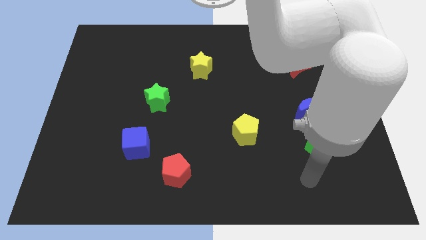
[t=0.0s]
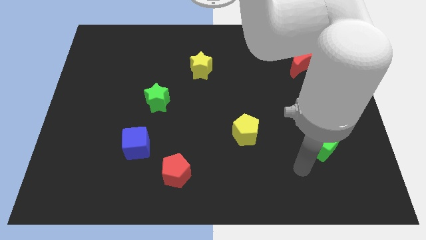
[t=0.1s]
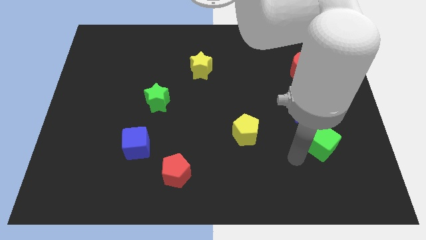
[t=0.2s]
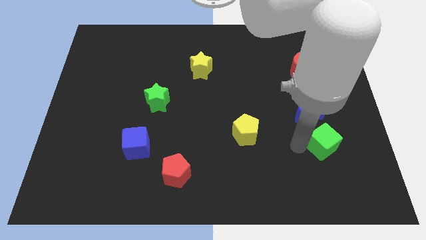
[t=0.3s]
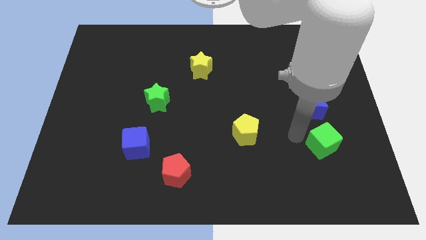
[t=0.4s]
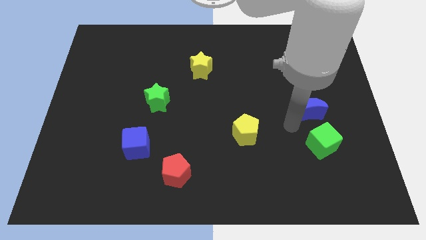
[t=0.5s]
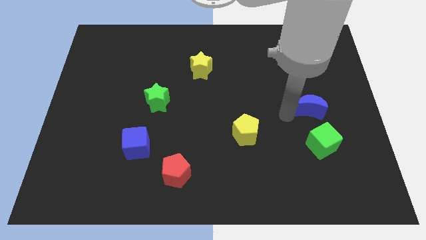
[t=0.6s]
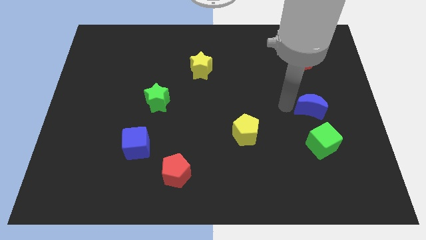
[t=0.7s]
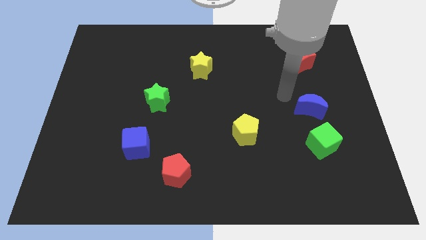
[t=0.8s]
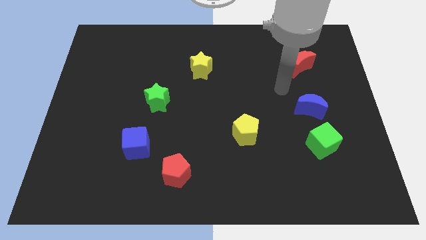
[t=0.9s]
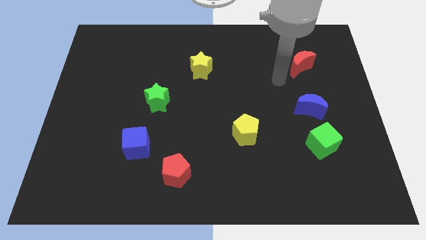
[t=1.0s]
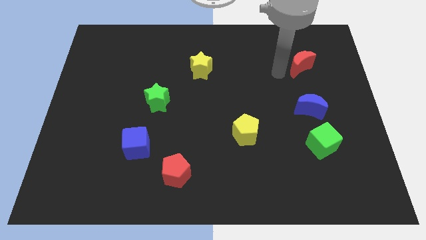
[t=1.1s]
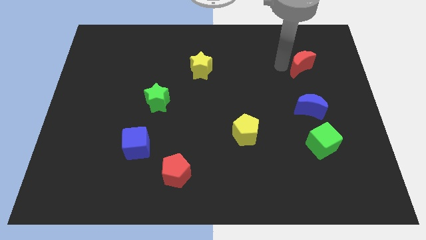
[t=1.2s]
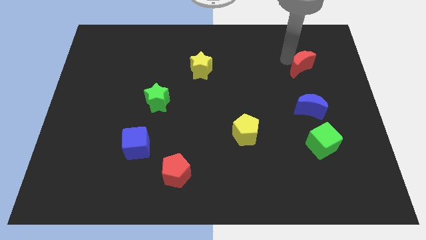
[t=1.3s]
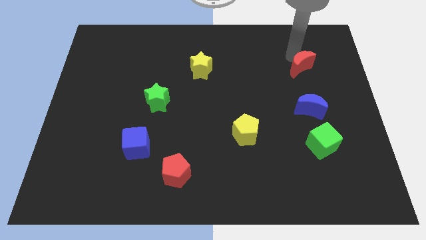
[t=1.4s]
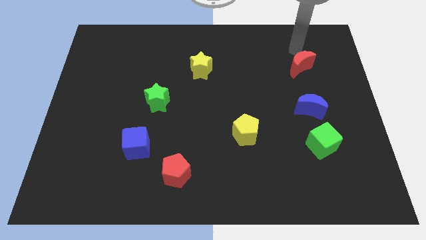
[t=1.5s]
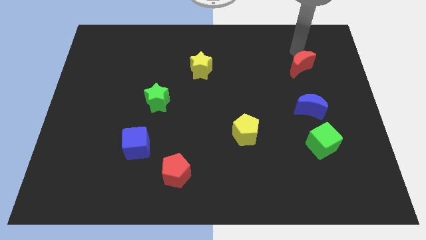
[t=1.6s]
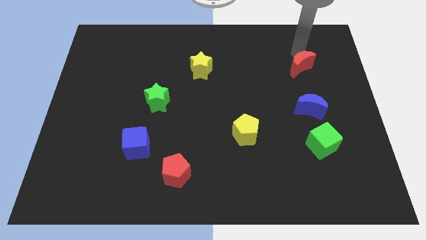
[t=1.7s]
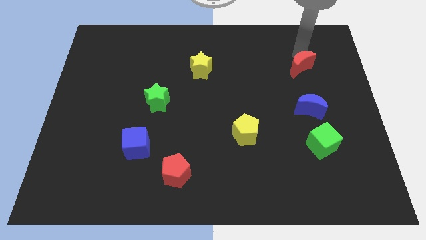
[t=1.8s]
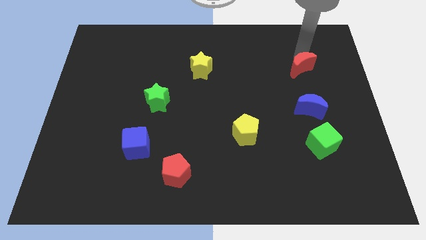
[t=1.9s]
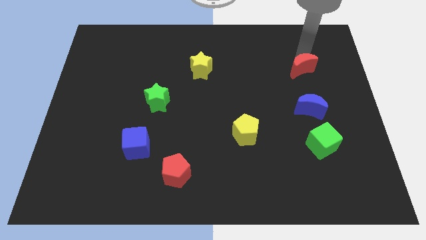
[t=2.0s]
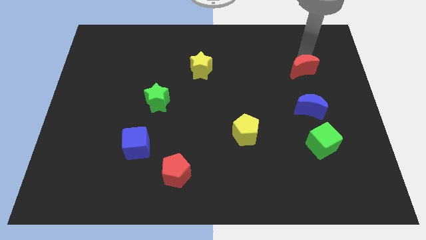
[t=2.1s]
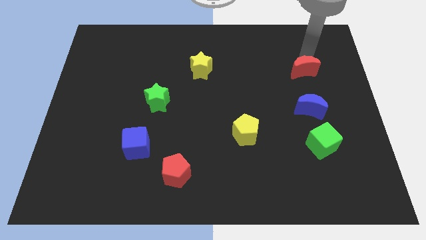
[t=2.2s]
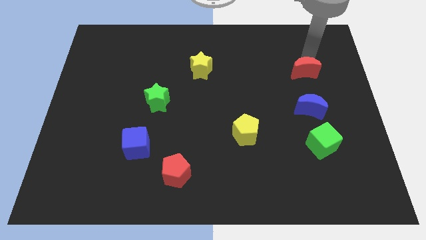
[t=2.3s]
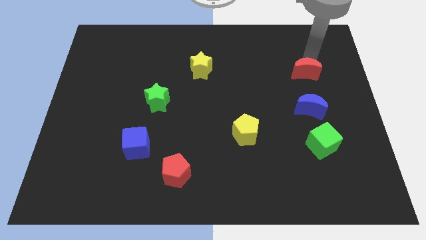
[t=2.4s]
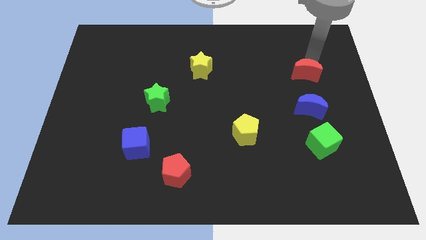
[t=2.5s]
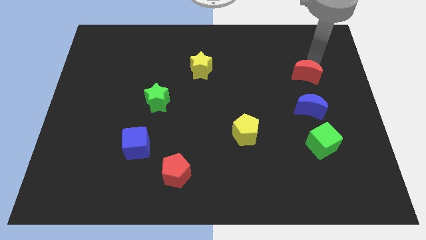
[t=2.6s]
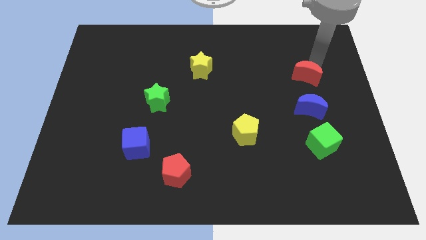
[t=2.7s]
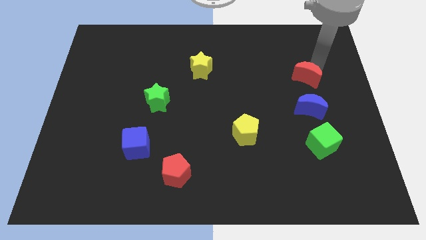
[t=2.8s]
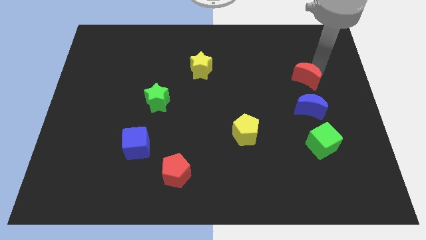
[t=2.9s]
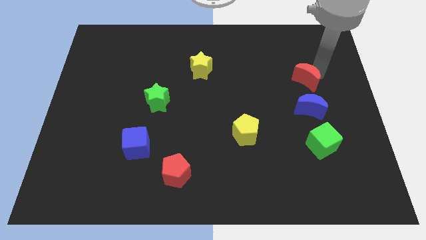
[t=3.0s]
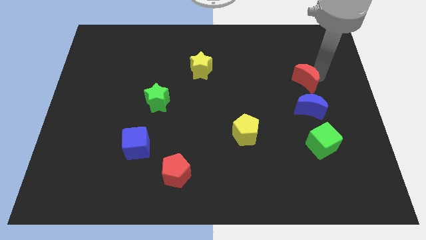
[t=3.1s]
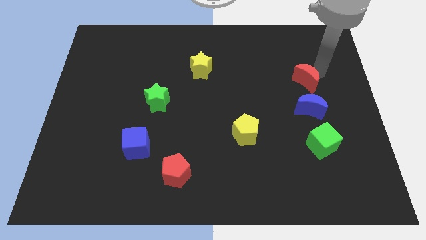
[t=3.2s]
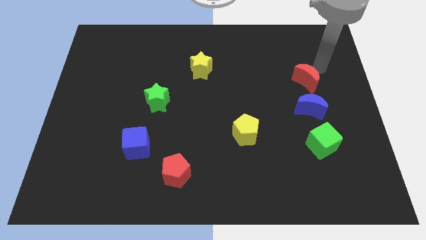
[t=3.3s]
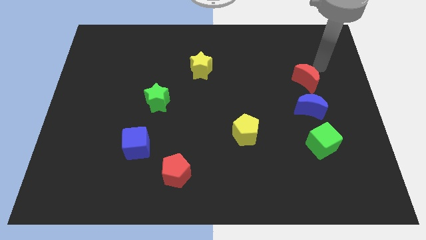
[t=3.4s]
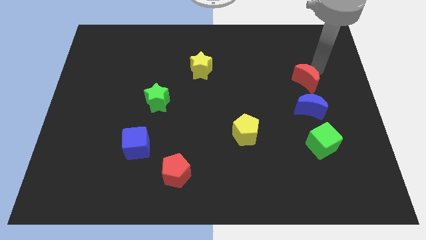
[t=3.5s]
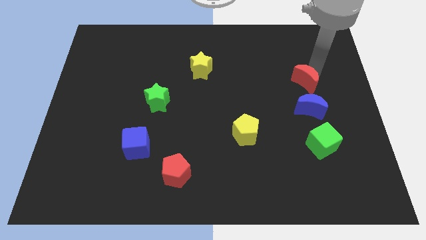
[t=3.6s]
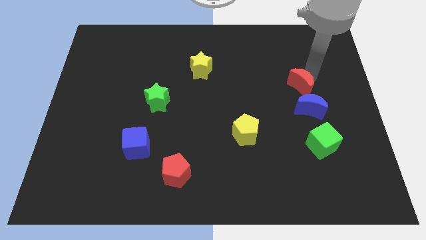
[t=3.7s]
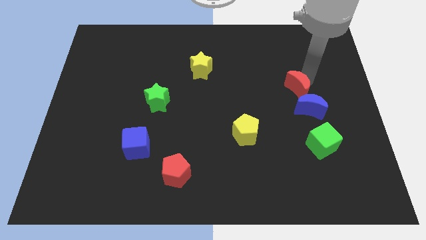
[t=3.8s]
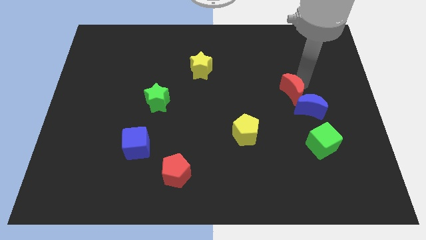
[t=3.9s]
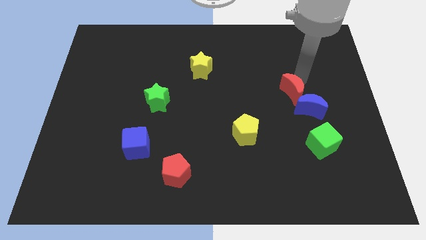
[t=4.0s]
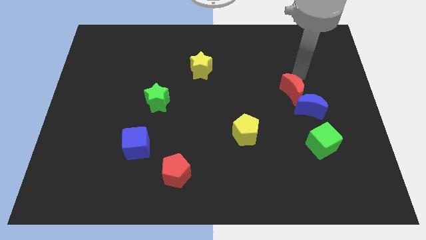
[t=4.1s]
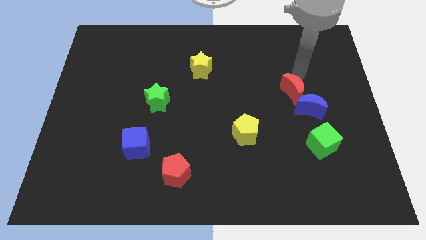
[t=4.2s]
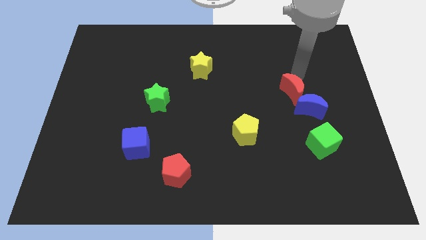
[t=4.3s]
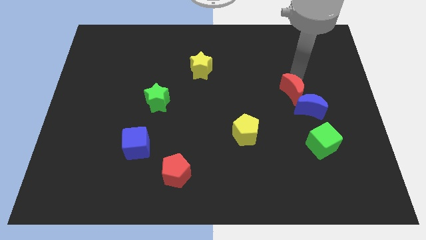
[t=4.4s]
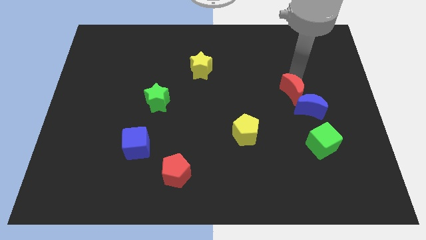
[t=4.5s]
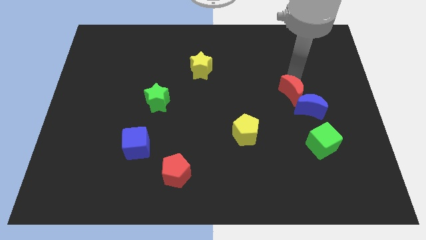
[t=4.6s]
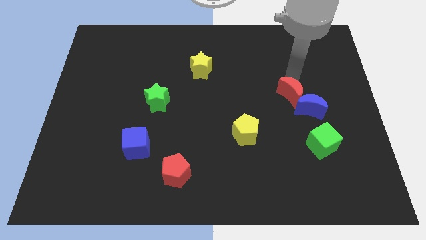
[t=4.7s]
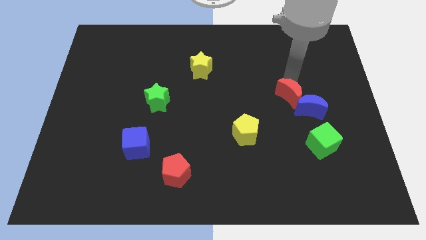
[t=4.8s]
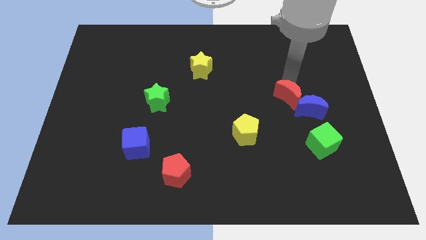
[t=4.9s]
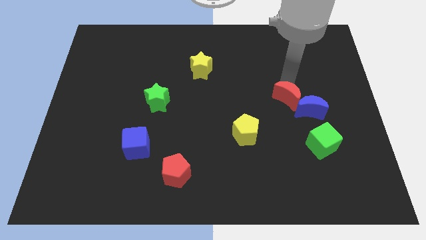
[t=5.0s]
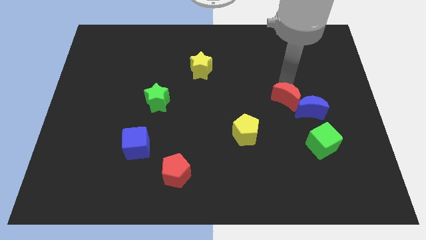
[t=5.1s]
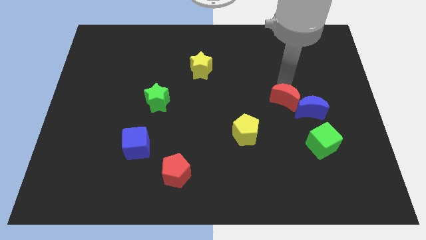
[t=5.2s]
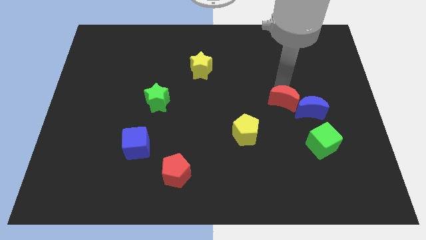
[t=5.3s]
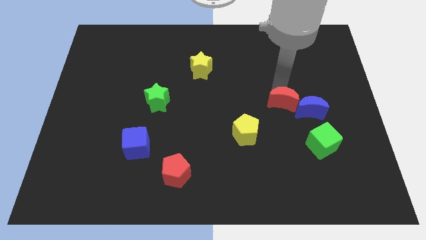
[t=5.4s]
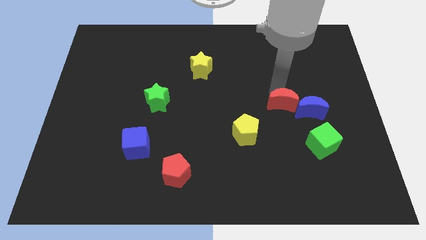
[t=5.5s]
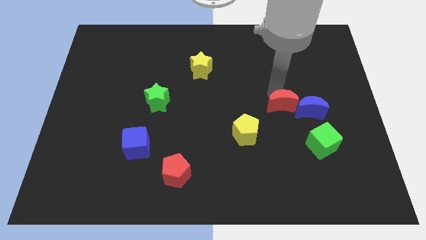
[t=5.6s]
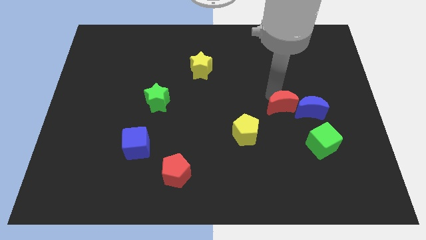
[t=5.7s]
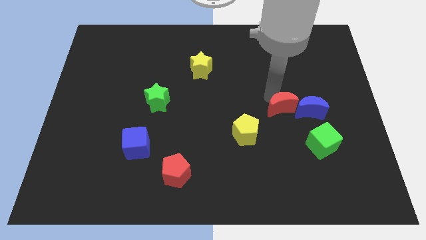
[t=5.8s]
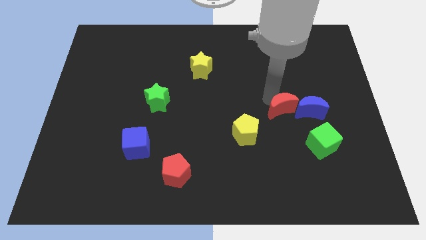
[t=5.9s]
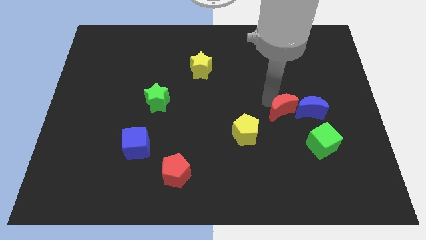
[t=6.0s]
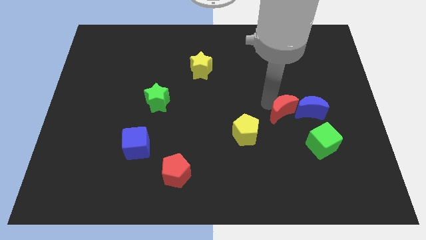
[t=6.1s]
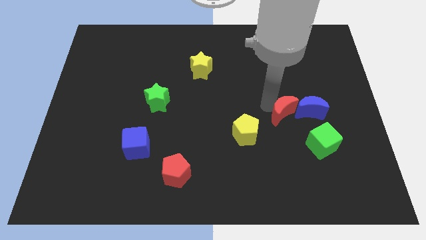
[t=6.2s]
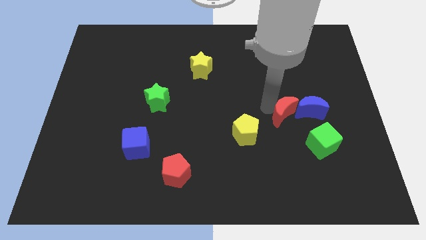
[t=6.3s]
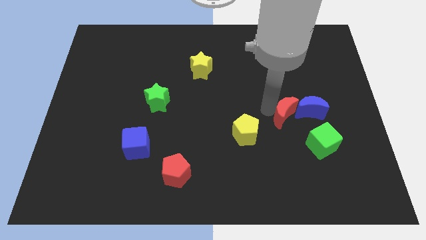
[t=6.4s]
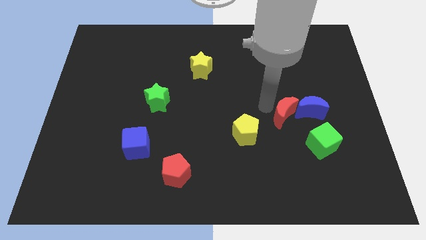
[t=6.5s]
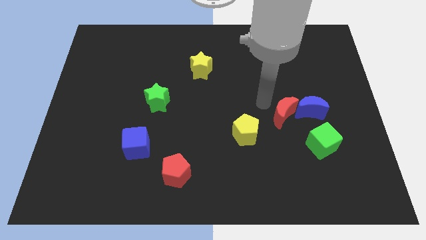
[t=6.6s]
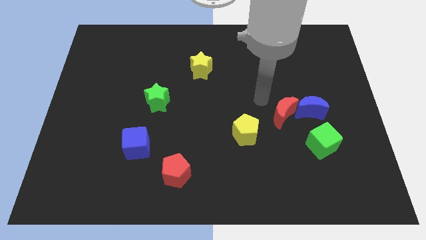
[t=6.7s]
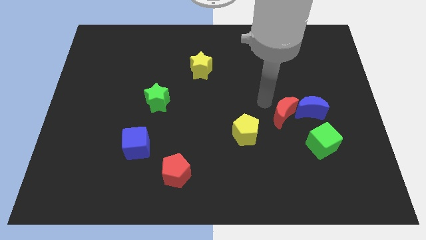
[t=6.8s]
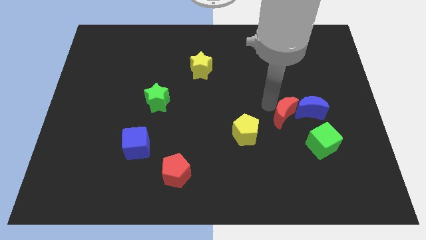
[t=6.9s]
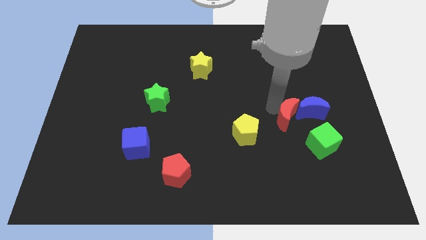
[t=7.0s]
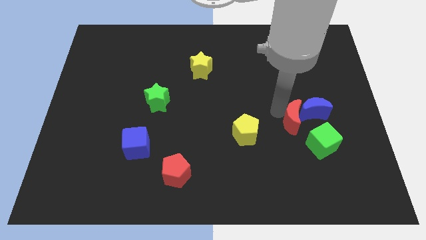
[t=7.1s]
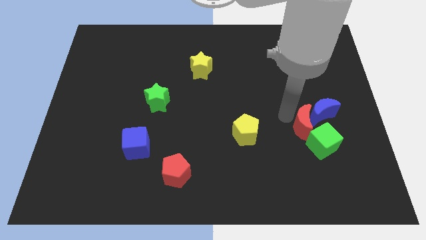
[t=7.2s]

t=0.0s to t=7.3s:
move the red moon to the green cube
